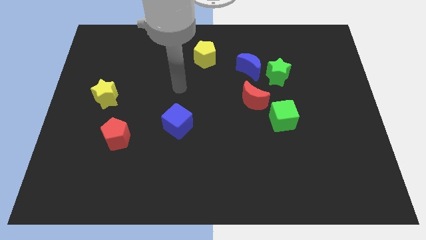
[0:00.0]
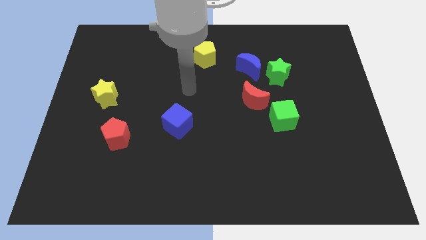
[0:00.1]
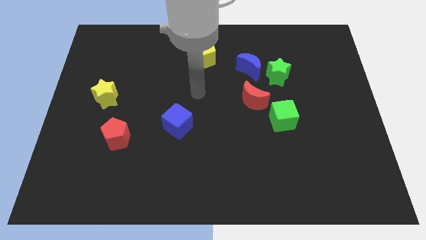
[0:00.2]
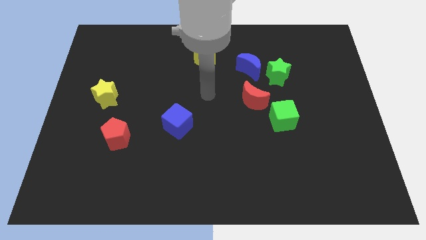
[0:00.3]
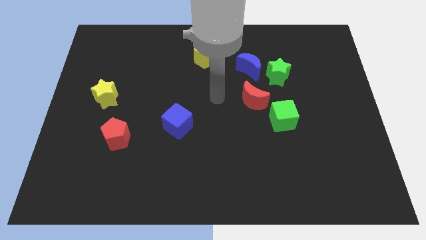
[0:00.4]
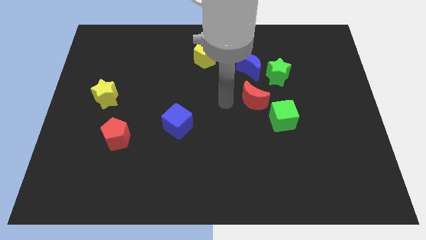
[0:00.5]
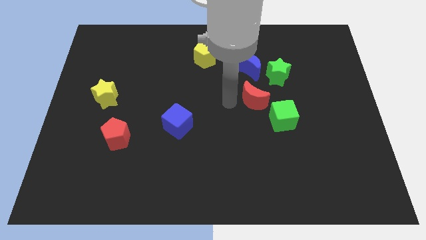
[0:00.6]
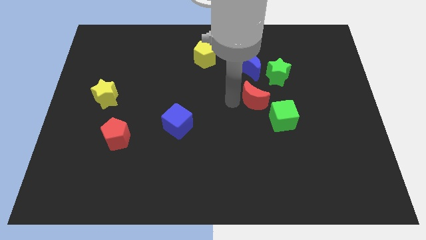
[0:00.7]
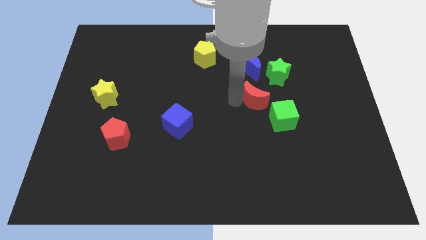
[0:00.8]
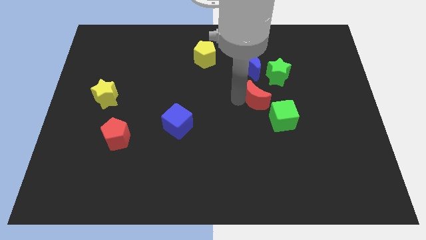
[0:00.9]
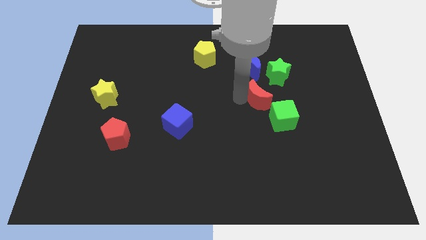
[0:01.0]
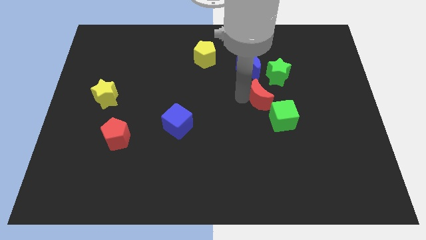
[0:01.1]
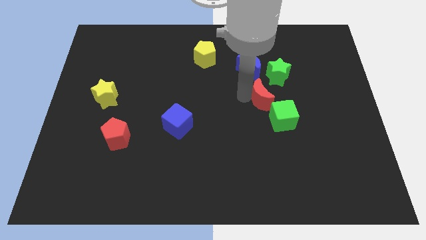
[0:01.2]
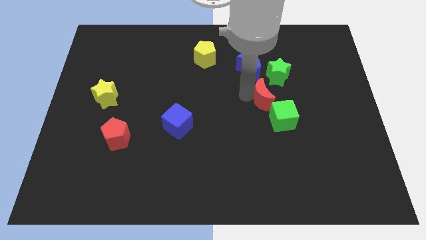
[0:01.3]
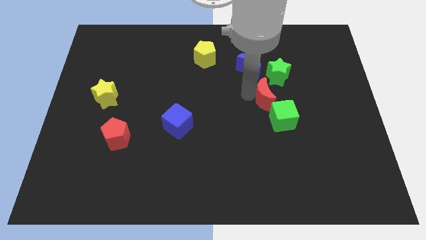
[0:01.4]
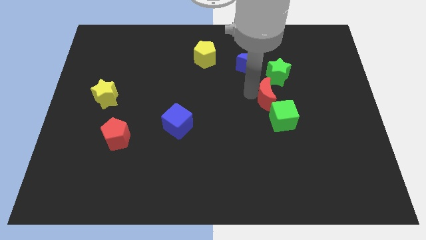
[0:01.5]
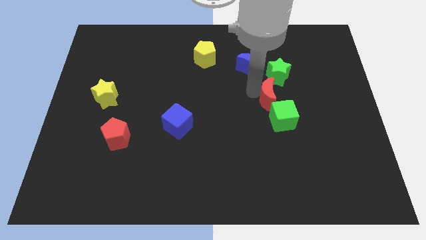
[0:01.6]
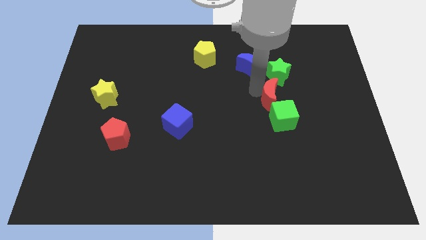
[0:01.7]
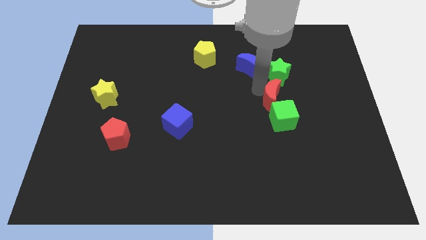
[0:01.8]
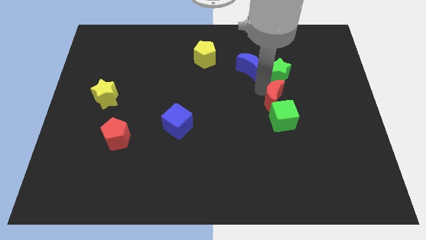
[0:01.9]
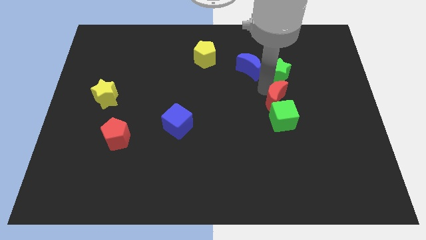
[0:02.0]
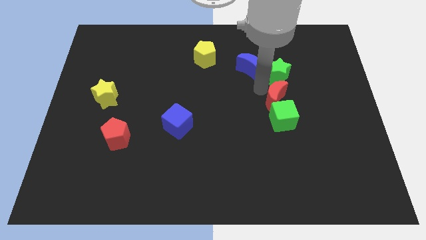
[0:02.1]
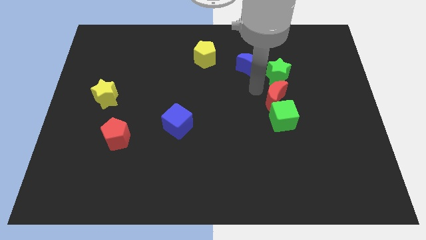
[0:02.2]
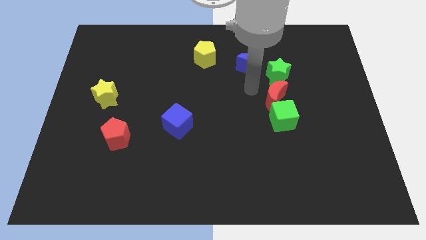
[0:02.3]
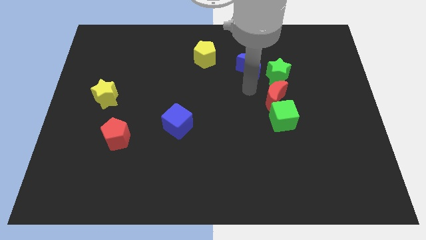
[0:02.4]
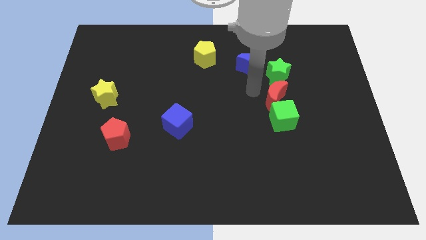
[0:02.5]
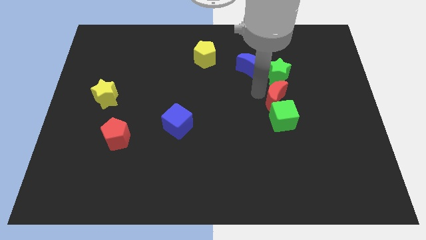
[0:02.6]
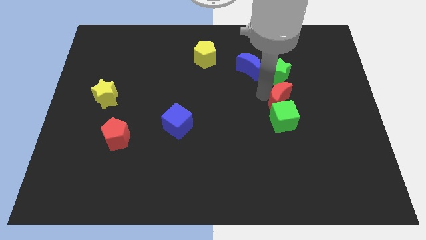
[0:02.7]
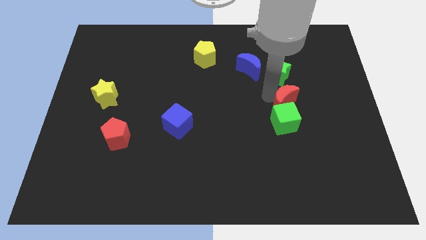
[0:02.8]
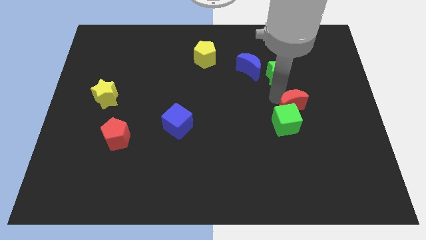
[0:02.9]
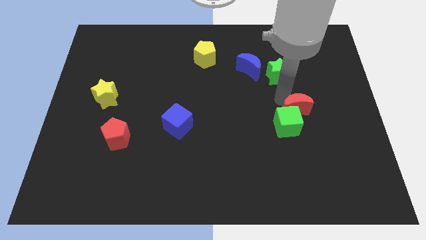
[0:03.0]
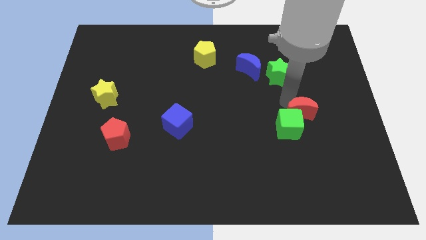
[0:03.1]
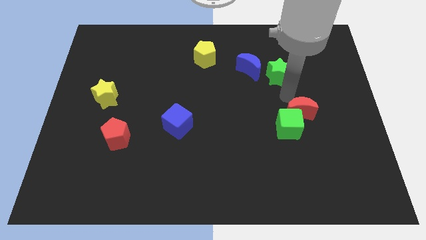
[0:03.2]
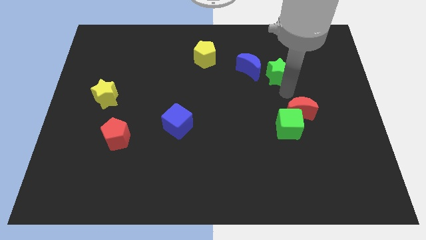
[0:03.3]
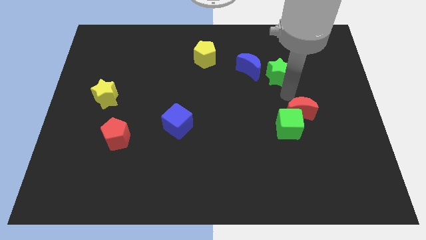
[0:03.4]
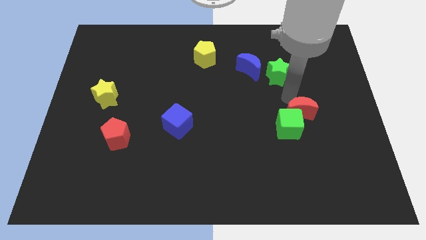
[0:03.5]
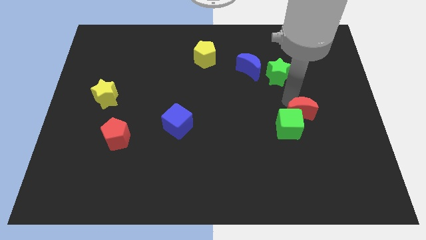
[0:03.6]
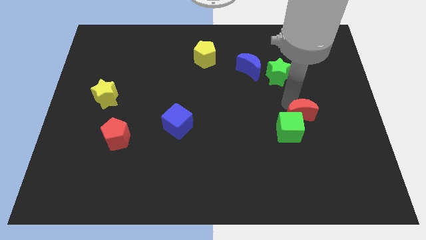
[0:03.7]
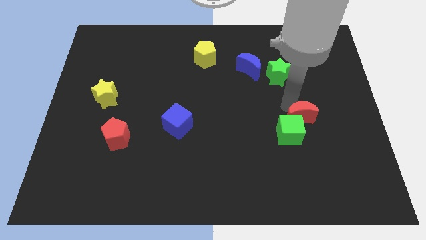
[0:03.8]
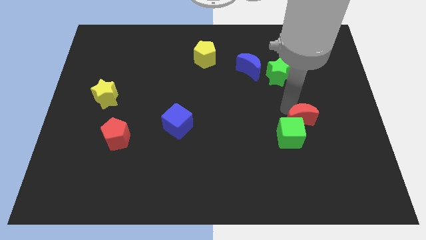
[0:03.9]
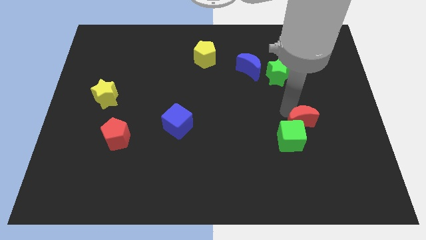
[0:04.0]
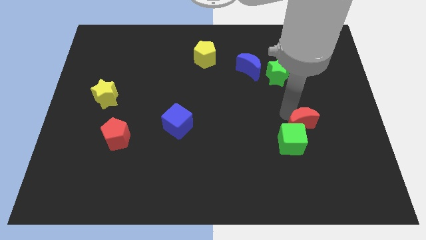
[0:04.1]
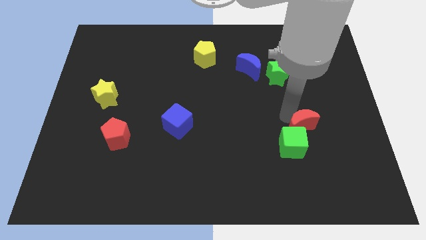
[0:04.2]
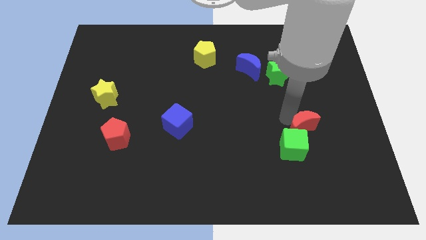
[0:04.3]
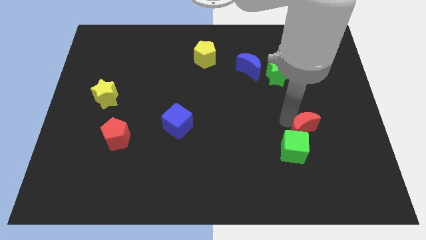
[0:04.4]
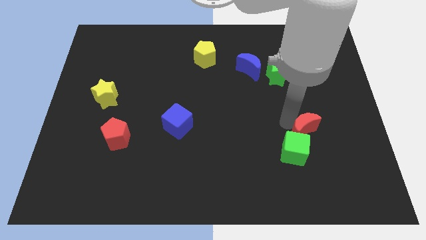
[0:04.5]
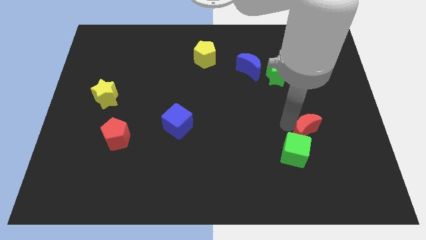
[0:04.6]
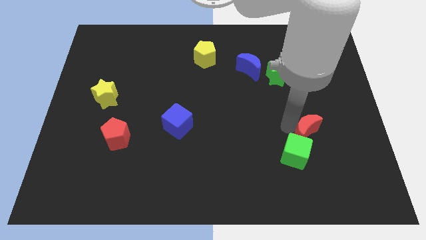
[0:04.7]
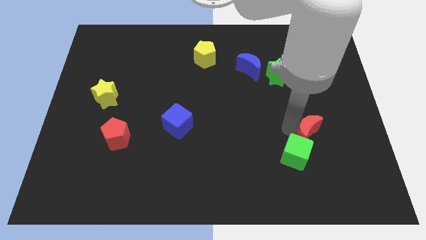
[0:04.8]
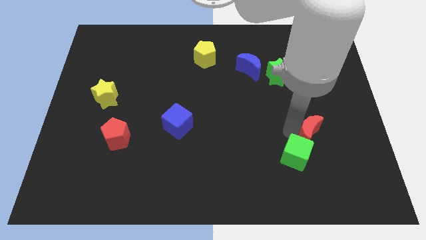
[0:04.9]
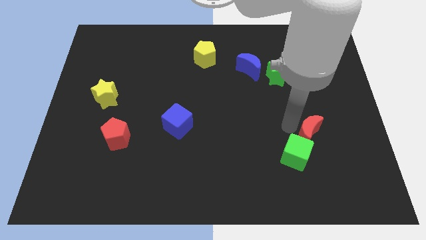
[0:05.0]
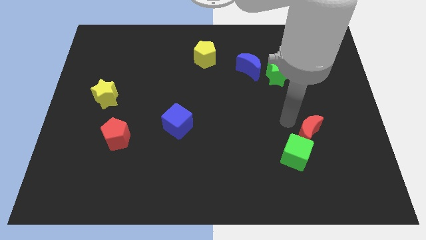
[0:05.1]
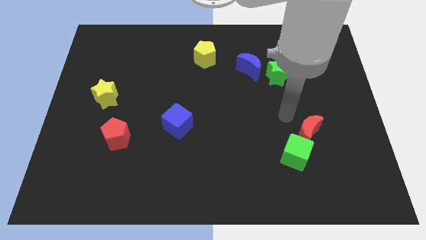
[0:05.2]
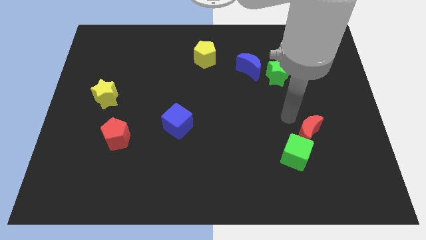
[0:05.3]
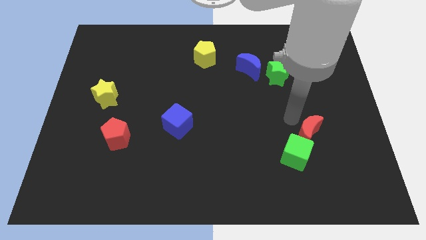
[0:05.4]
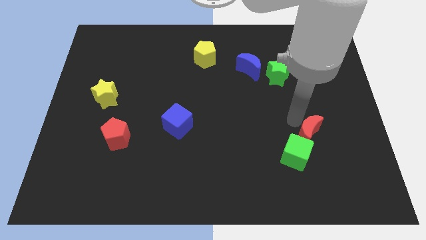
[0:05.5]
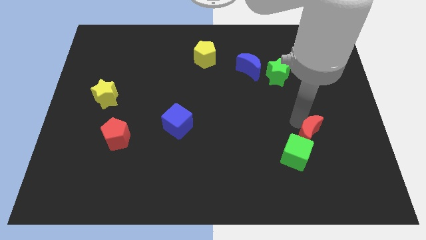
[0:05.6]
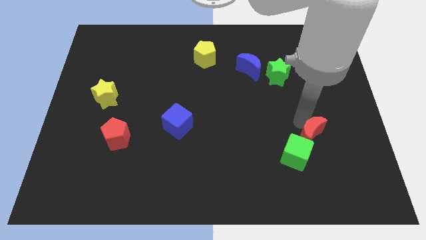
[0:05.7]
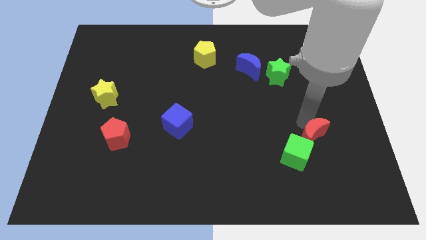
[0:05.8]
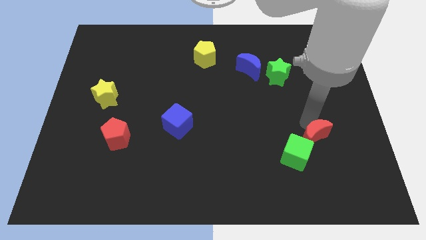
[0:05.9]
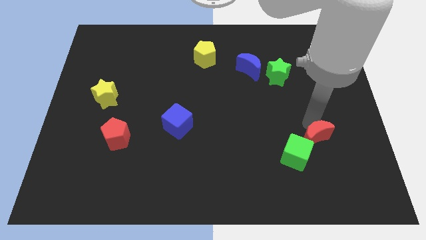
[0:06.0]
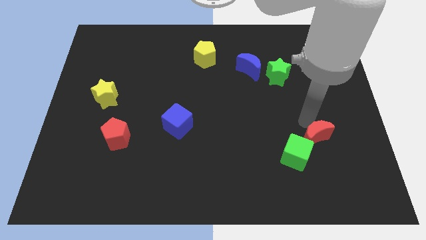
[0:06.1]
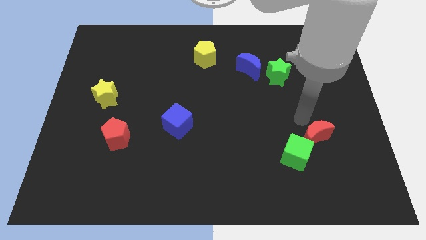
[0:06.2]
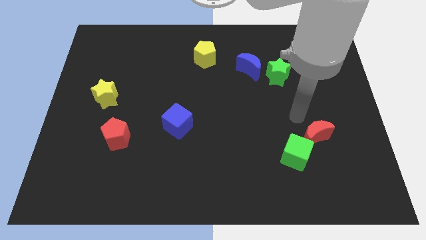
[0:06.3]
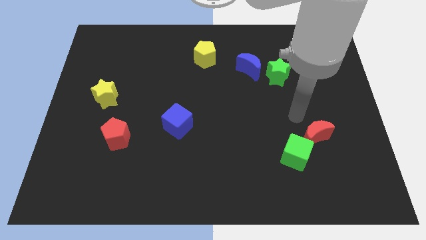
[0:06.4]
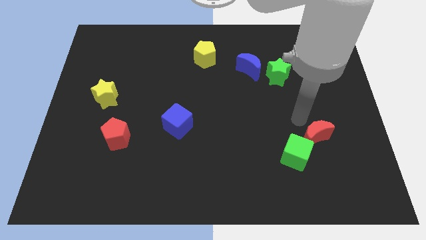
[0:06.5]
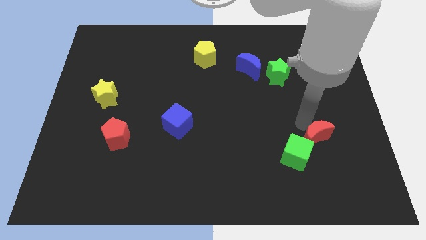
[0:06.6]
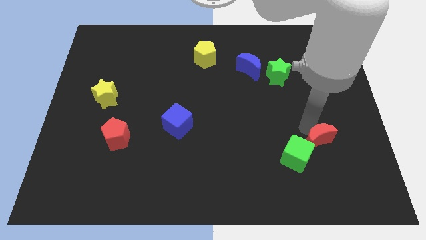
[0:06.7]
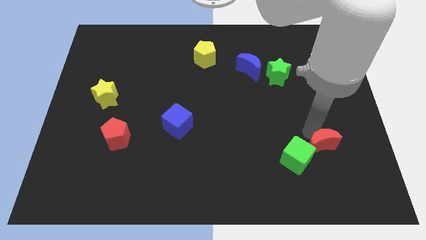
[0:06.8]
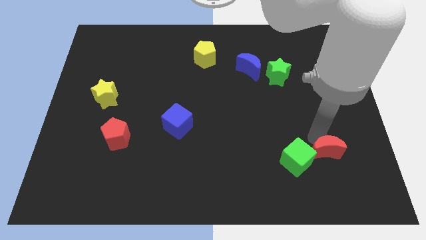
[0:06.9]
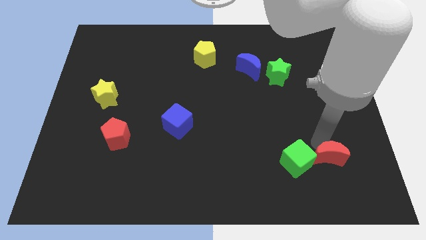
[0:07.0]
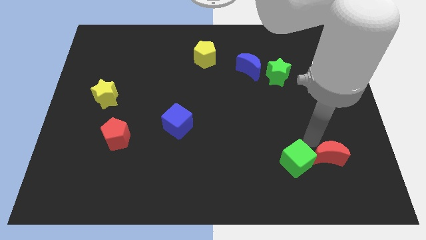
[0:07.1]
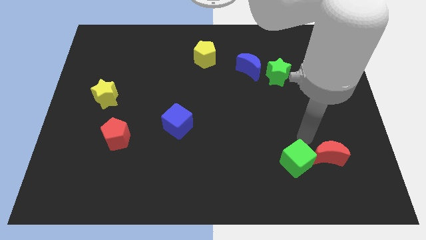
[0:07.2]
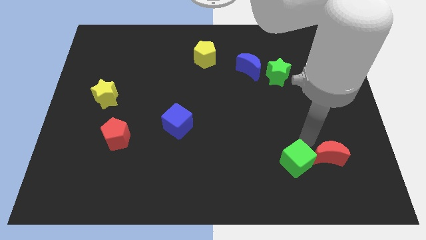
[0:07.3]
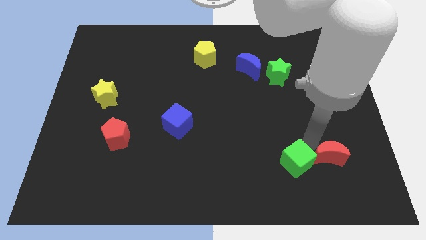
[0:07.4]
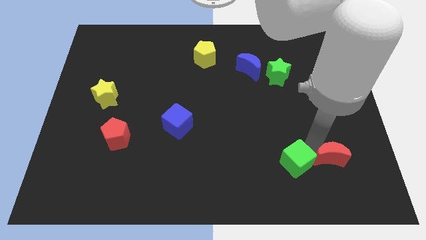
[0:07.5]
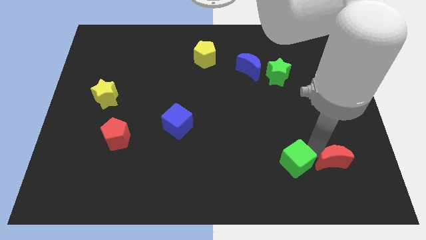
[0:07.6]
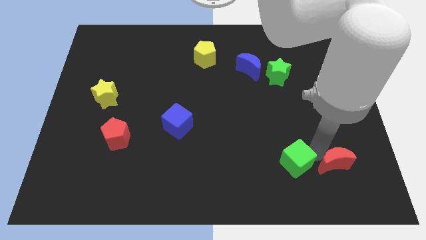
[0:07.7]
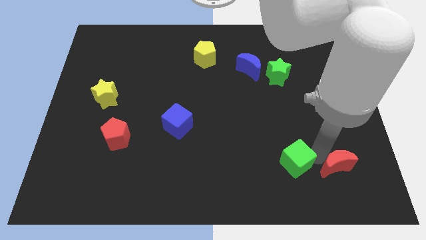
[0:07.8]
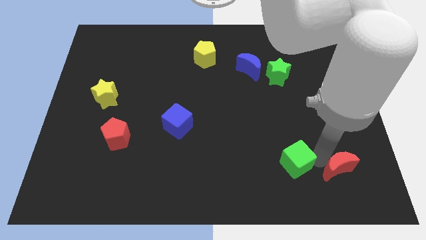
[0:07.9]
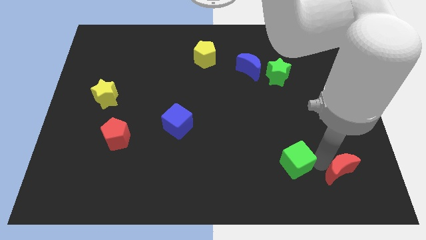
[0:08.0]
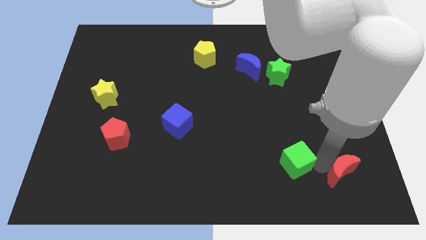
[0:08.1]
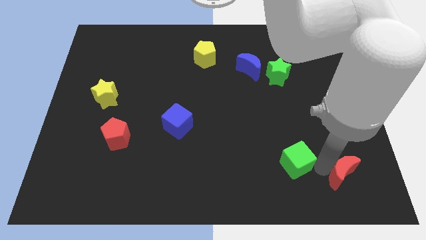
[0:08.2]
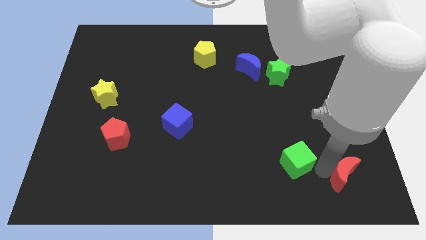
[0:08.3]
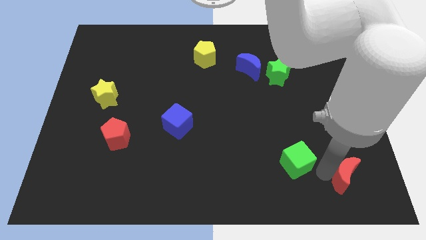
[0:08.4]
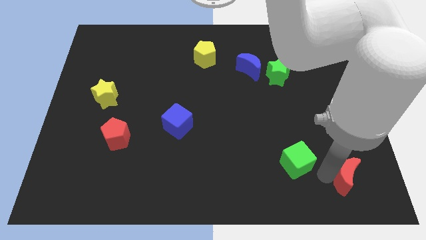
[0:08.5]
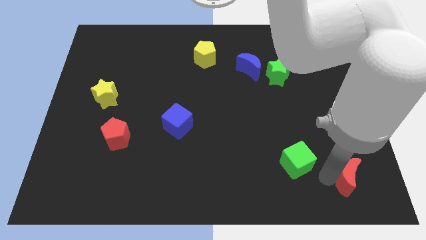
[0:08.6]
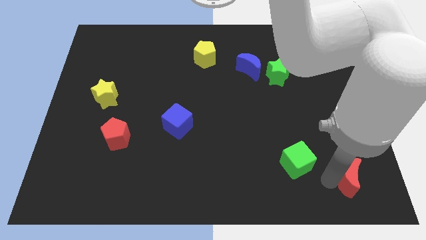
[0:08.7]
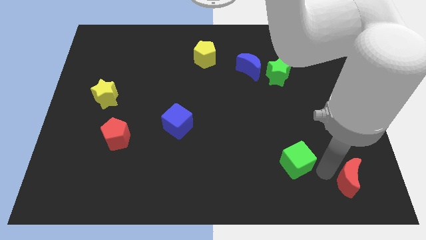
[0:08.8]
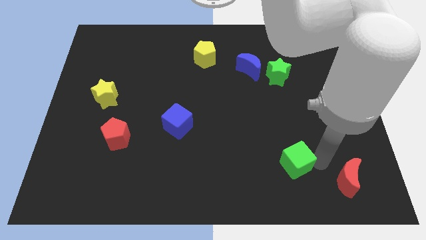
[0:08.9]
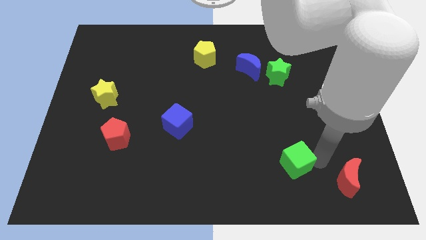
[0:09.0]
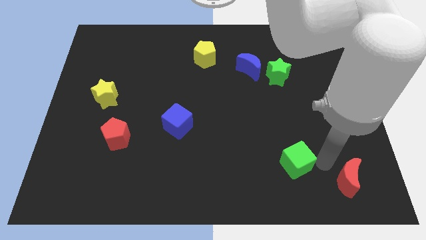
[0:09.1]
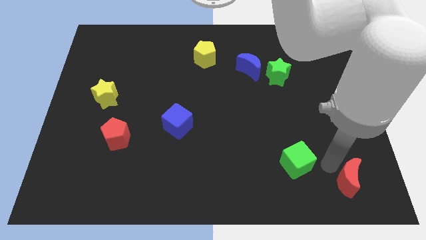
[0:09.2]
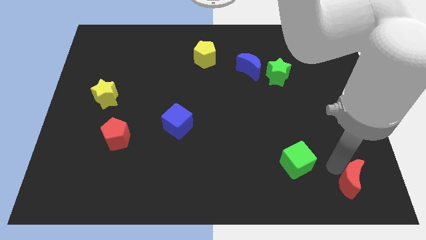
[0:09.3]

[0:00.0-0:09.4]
slide the red moon to the bottom right
